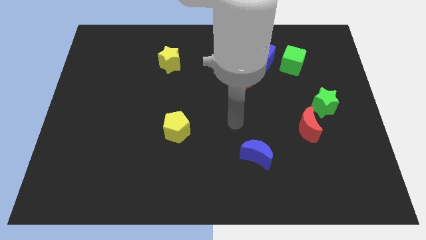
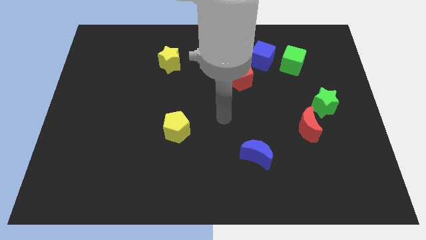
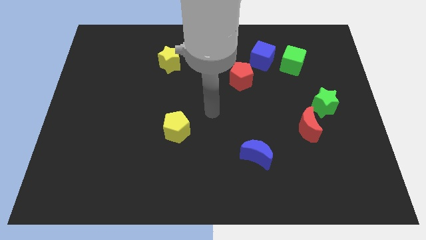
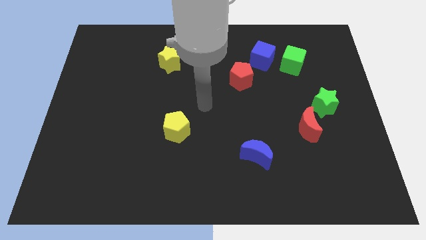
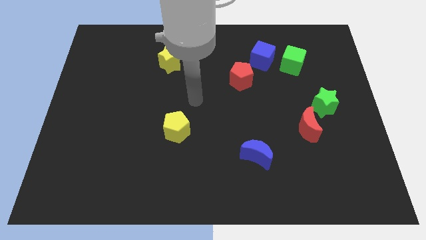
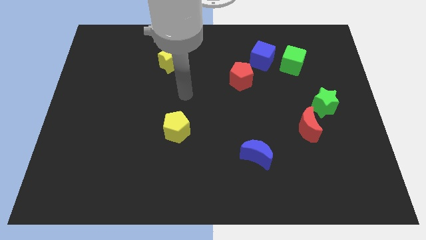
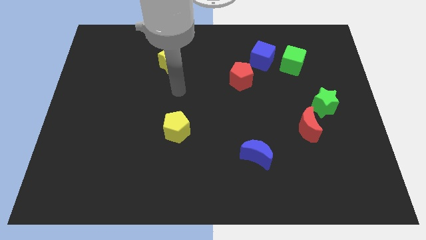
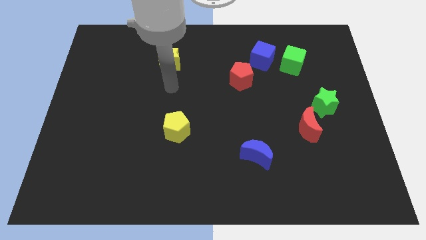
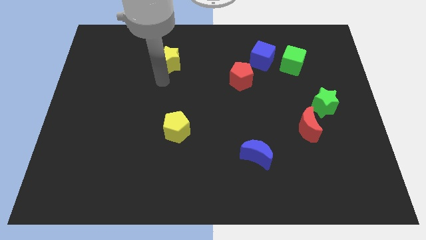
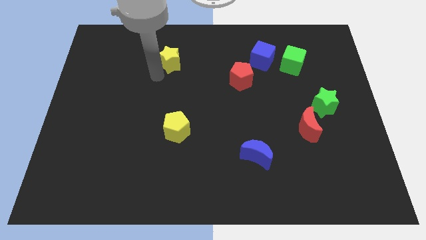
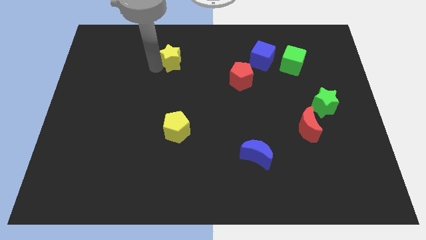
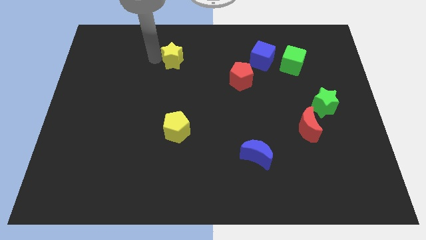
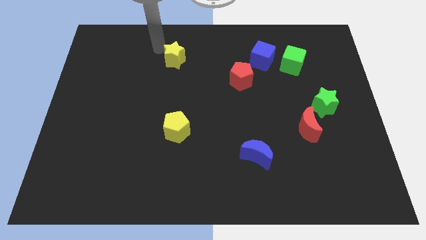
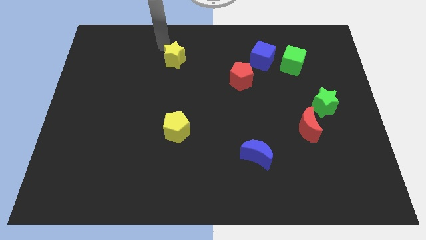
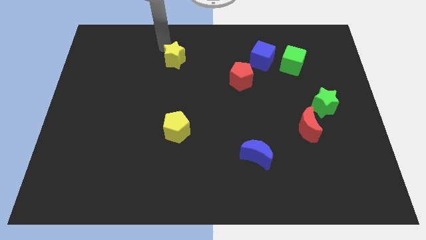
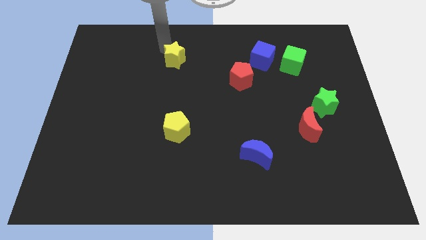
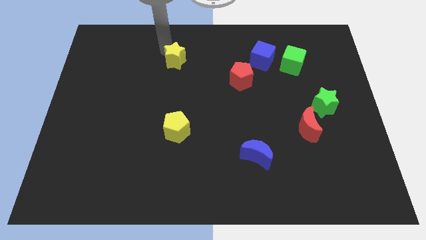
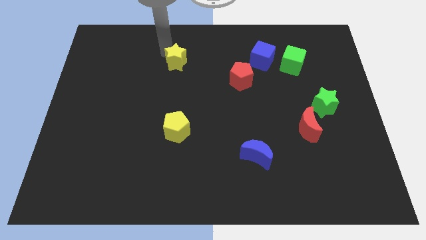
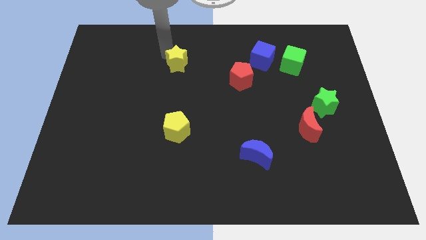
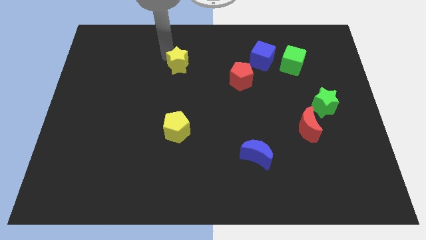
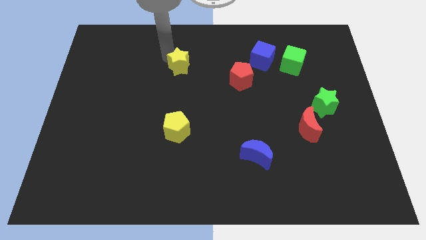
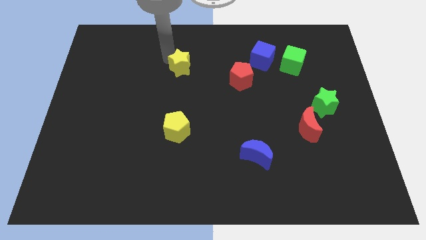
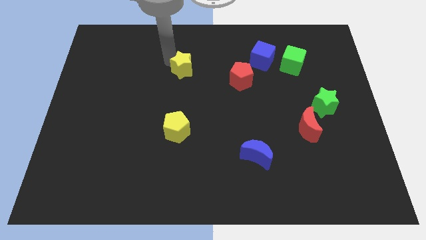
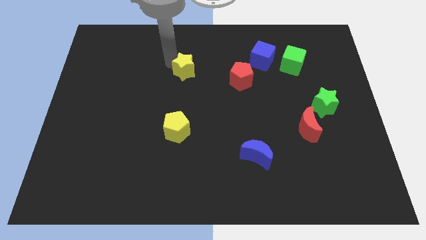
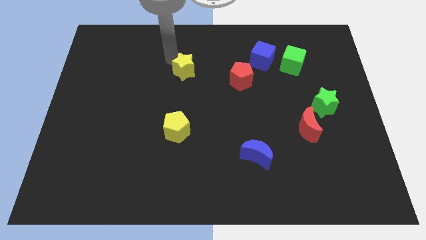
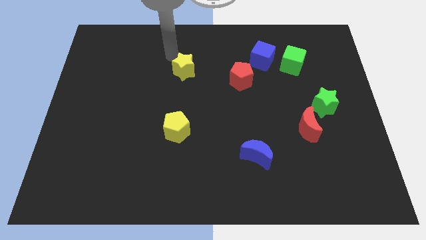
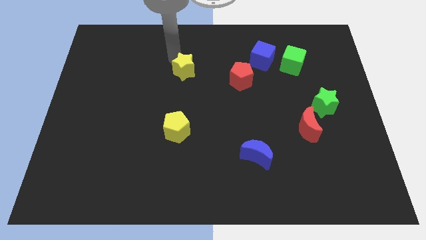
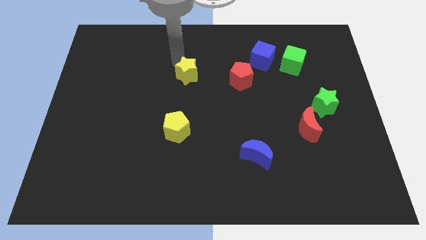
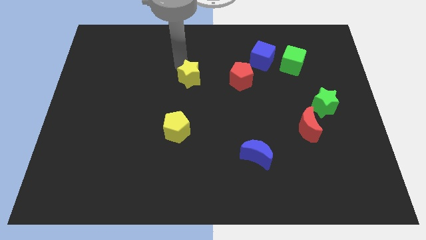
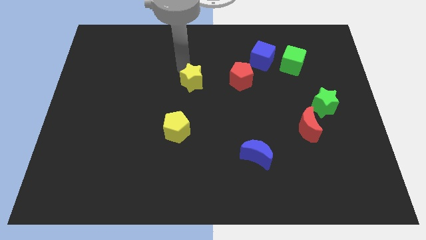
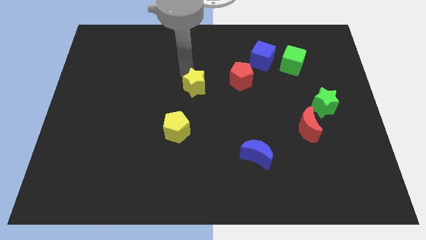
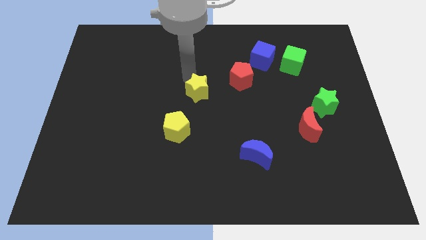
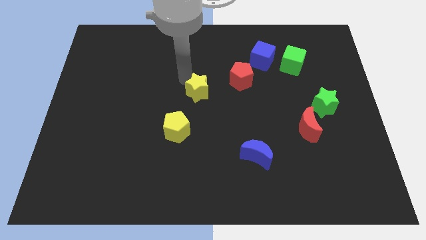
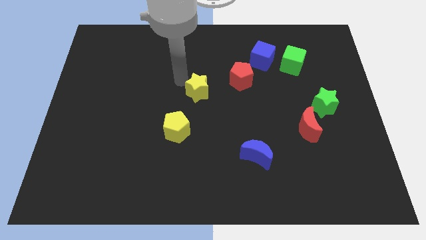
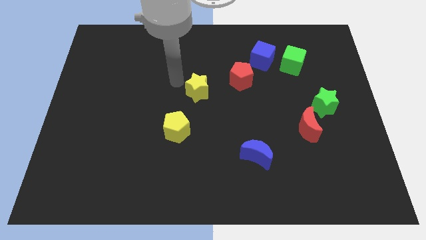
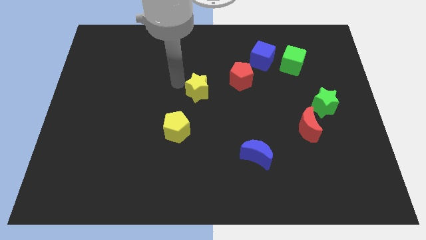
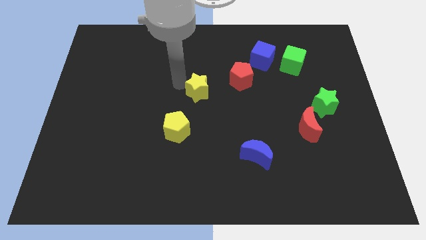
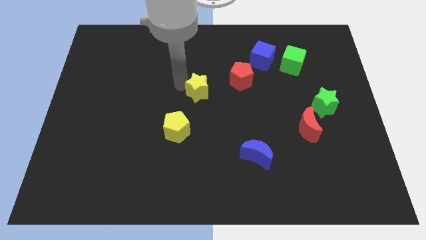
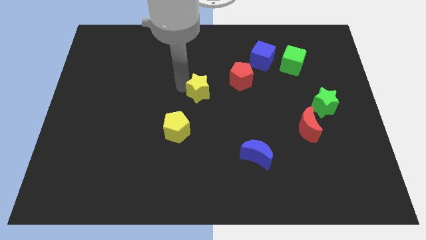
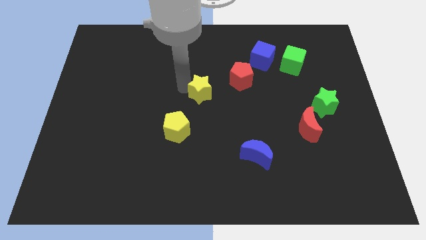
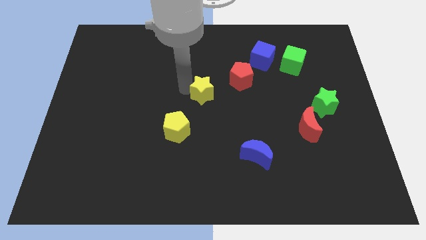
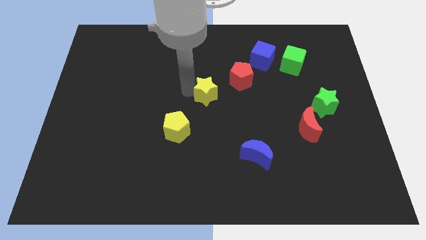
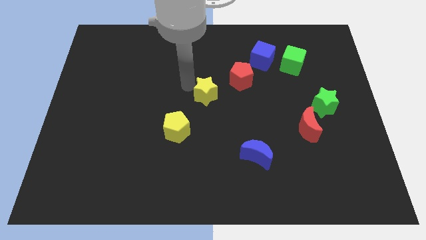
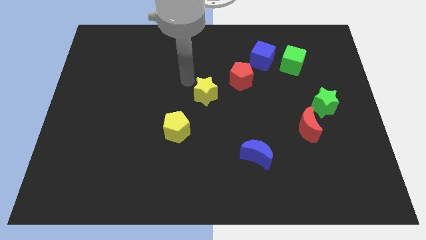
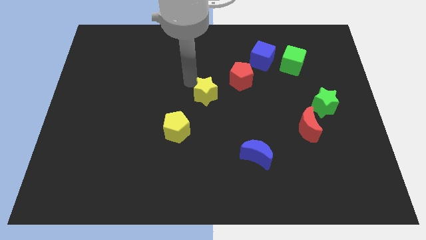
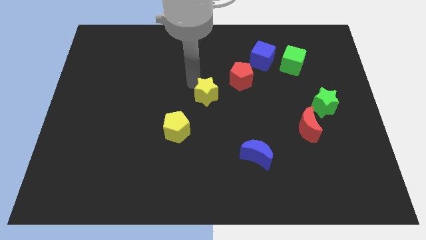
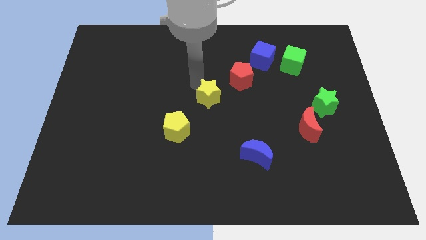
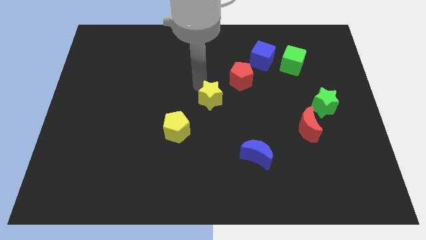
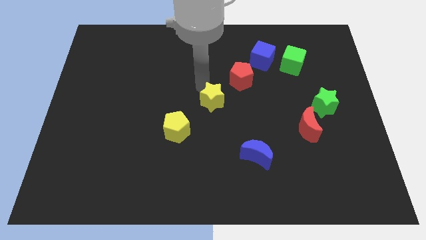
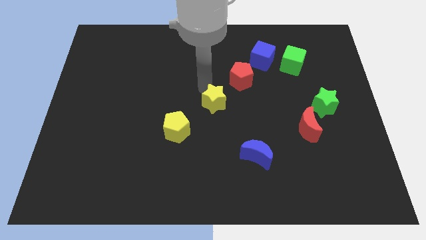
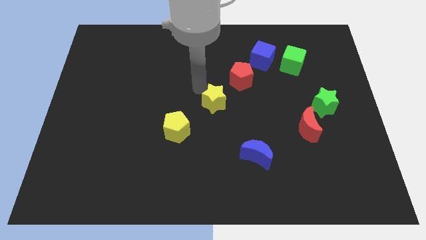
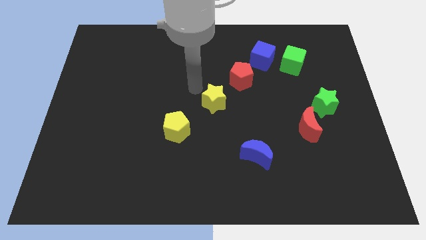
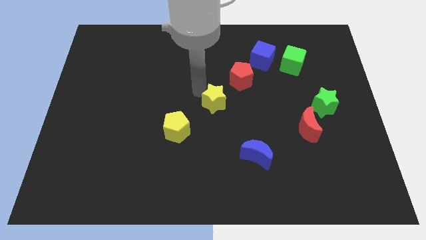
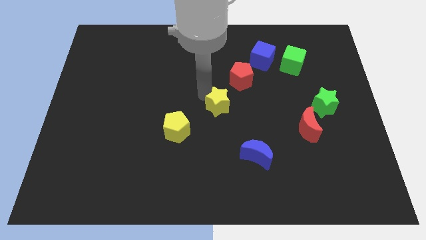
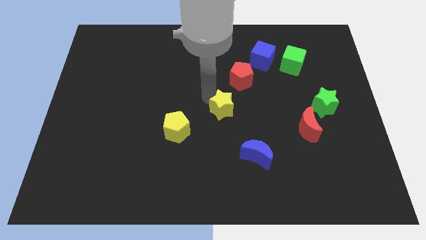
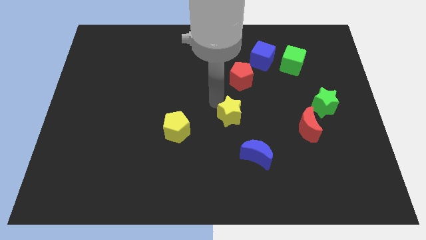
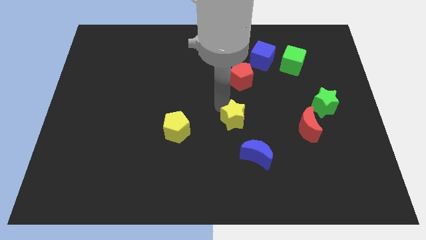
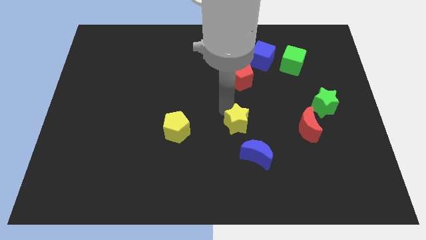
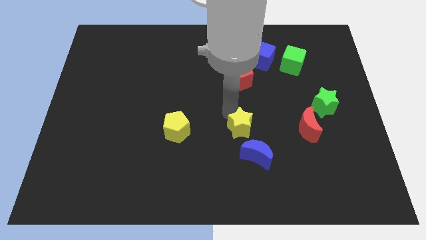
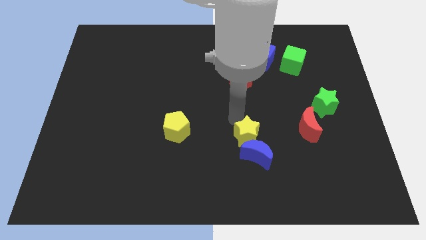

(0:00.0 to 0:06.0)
move the yellow star next to the blue moon

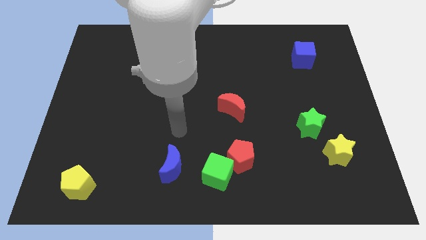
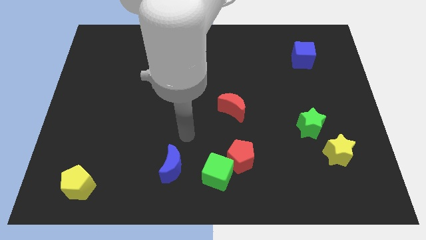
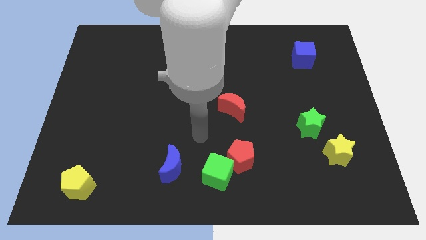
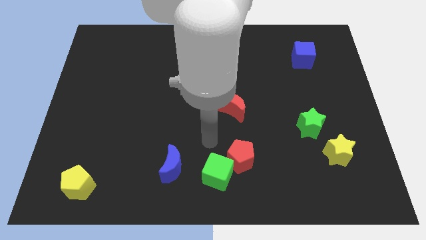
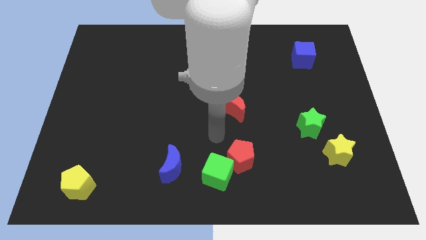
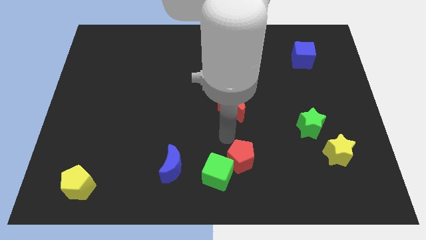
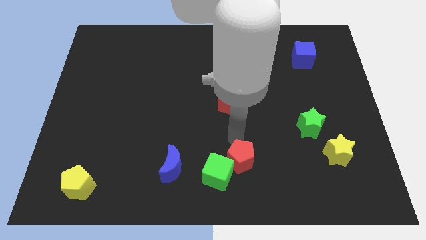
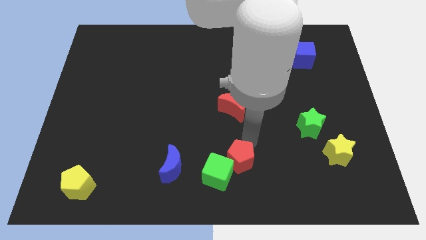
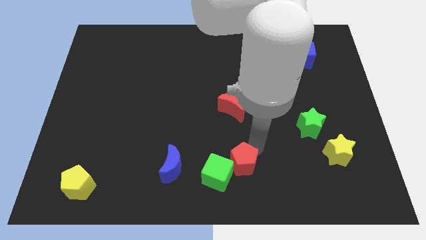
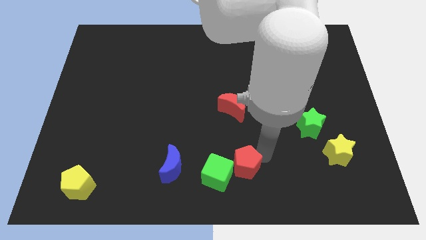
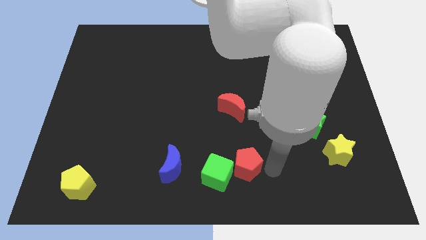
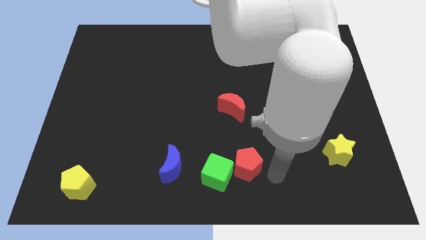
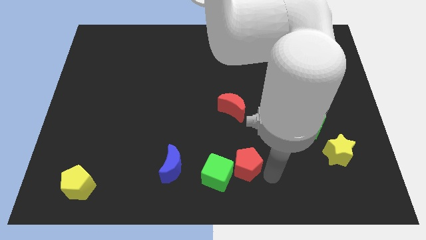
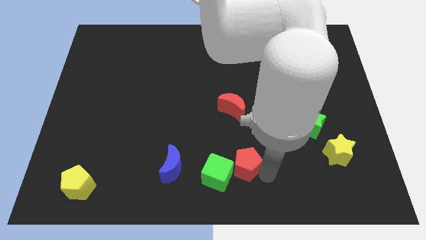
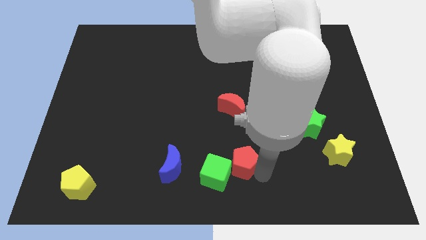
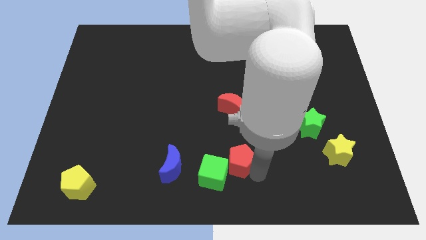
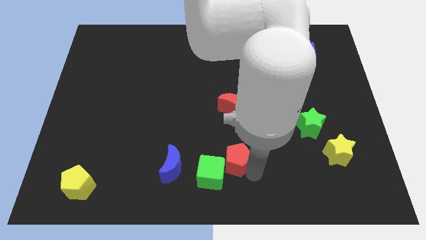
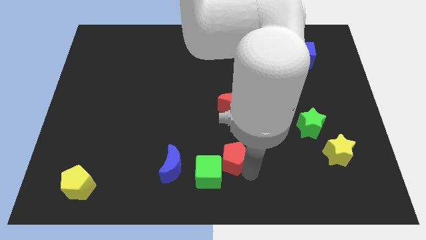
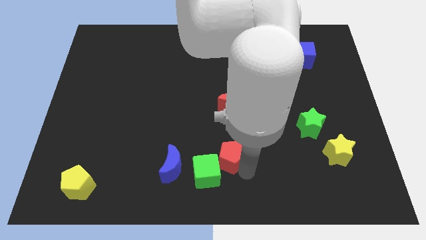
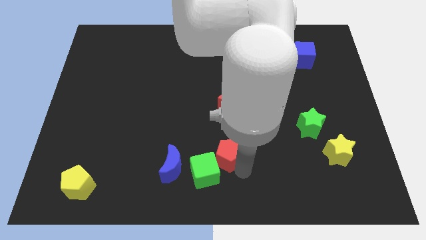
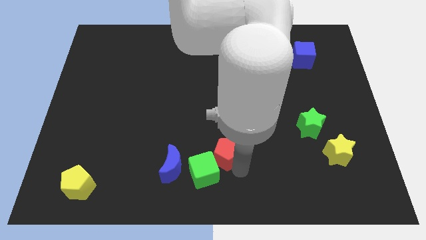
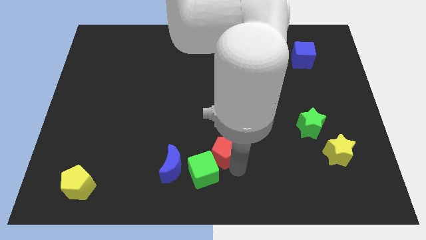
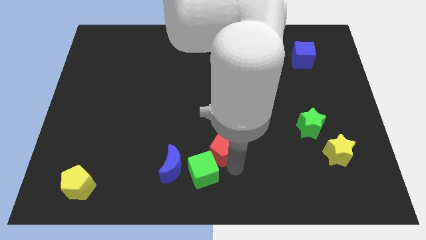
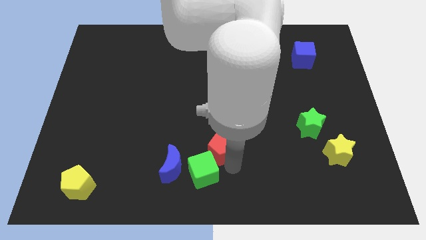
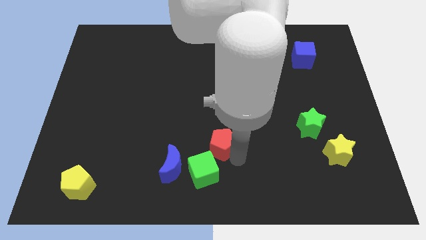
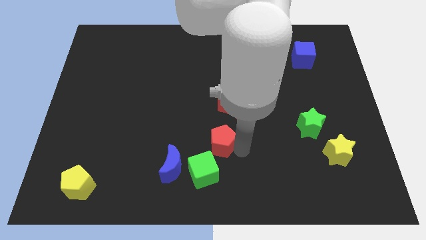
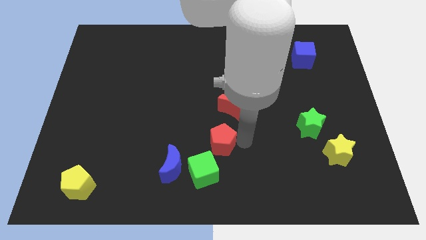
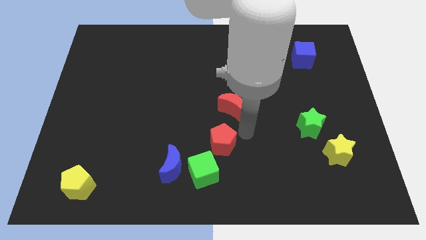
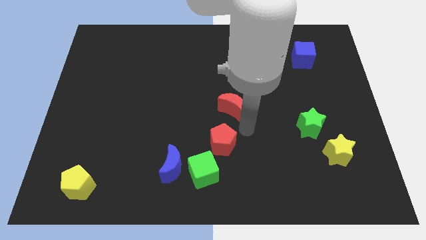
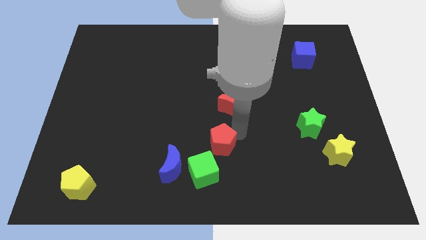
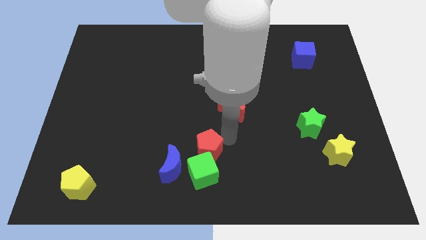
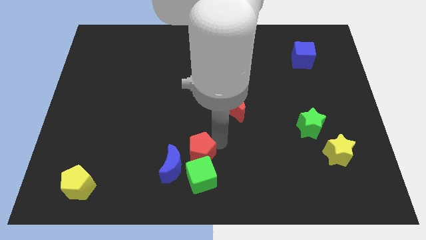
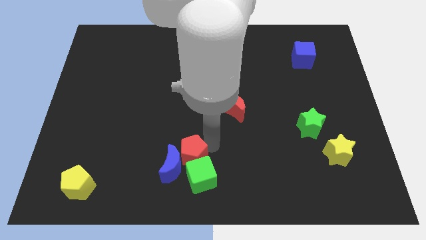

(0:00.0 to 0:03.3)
slide the red pentagon close to the blue moon
